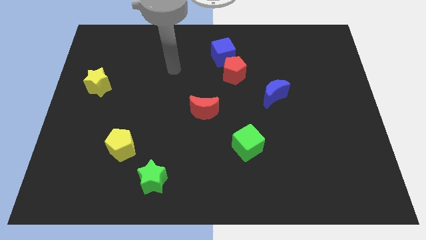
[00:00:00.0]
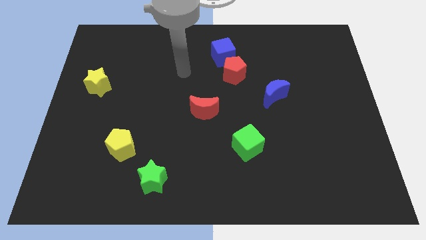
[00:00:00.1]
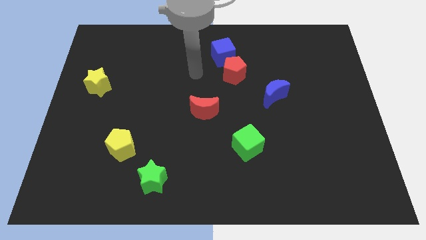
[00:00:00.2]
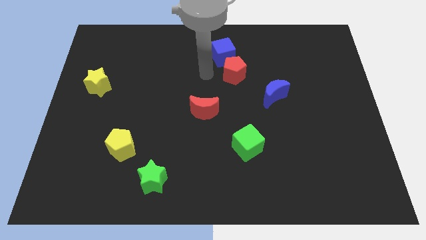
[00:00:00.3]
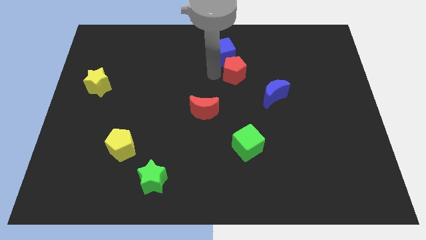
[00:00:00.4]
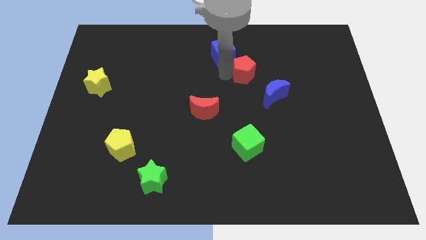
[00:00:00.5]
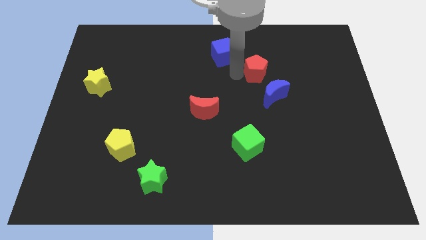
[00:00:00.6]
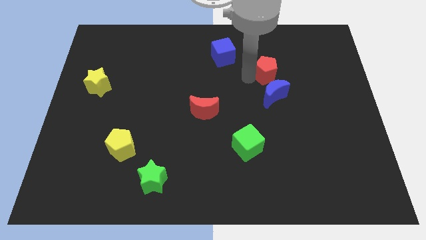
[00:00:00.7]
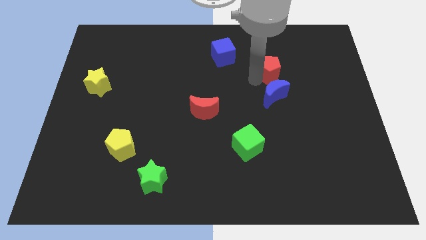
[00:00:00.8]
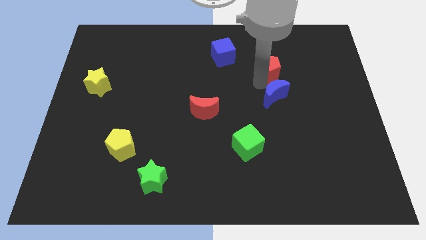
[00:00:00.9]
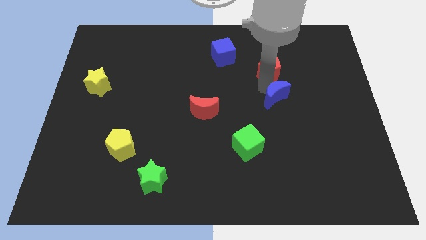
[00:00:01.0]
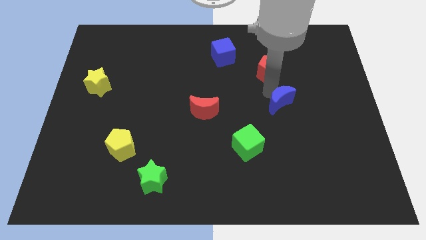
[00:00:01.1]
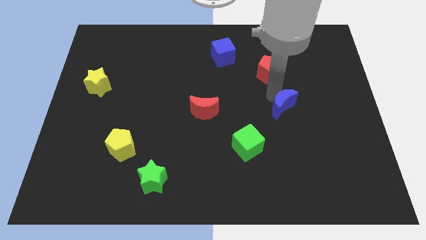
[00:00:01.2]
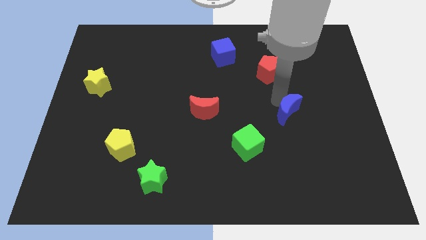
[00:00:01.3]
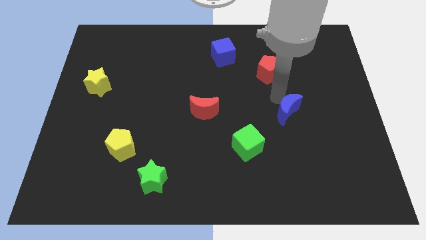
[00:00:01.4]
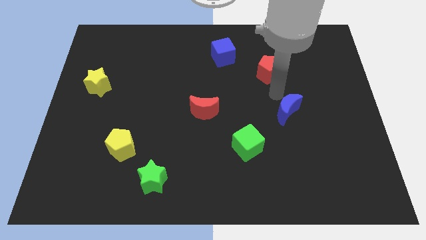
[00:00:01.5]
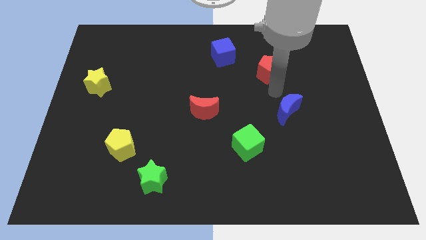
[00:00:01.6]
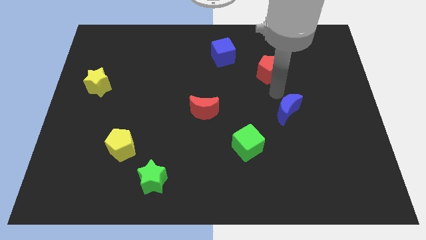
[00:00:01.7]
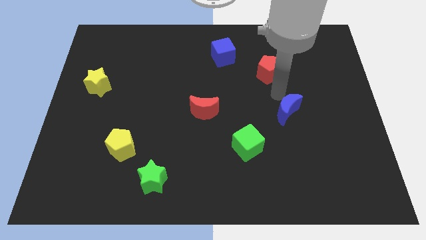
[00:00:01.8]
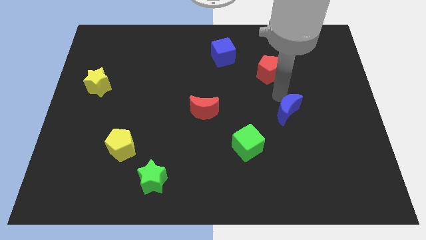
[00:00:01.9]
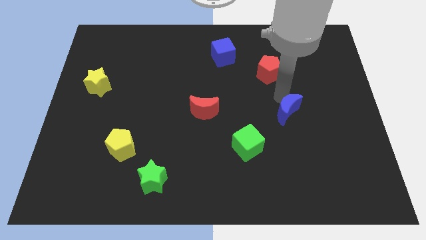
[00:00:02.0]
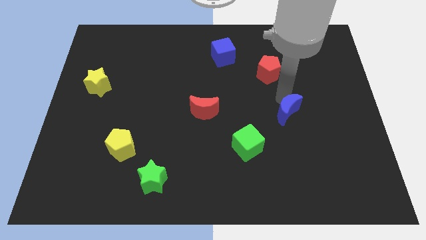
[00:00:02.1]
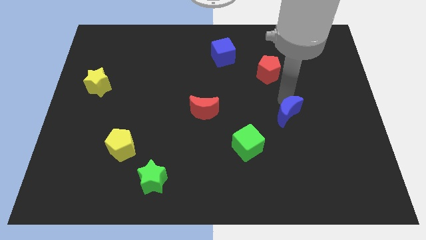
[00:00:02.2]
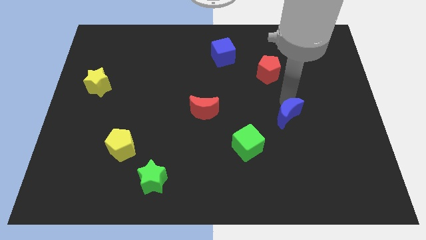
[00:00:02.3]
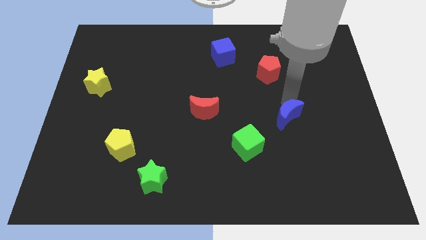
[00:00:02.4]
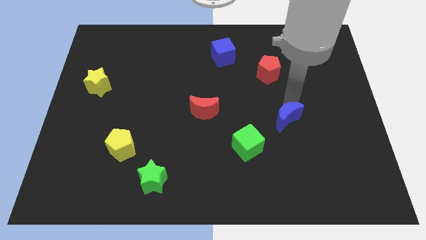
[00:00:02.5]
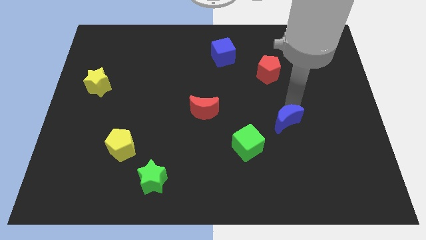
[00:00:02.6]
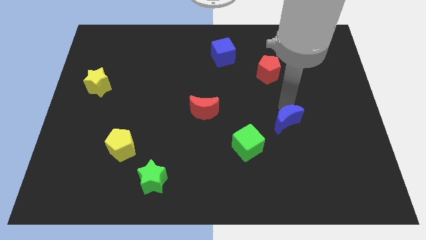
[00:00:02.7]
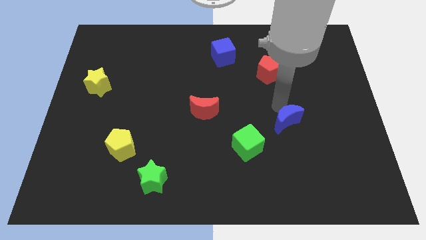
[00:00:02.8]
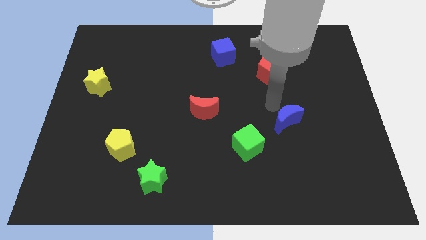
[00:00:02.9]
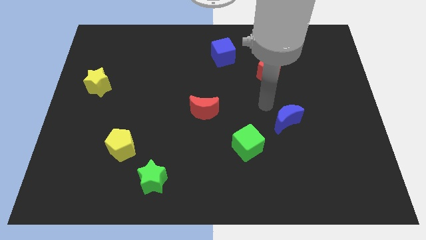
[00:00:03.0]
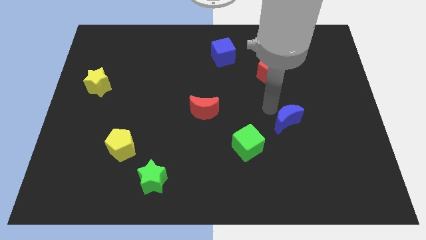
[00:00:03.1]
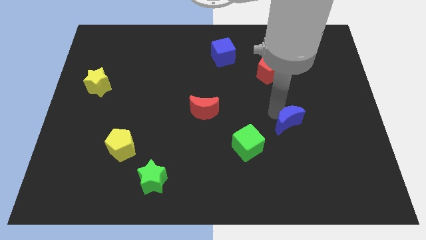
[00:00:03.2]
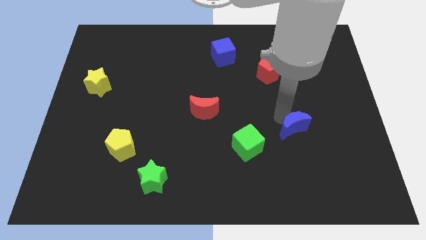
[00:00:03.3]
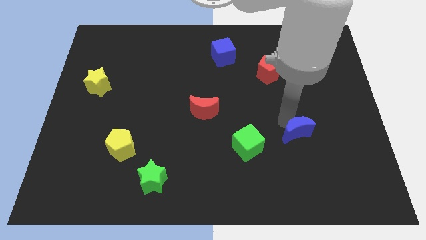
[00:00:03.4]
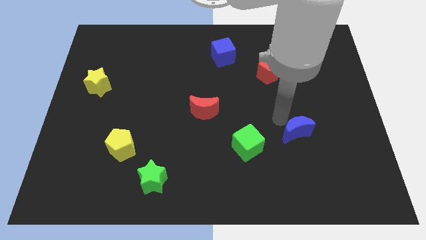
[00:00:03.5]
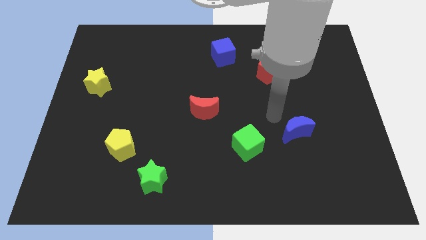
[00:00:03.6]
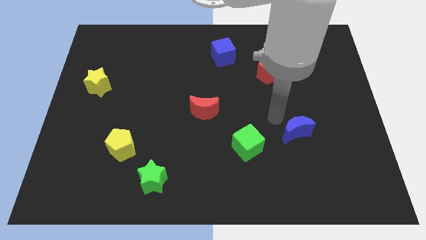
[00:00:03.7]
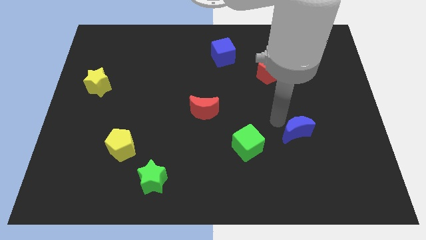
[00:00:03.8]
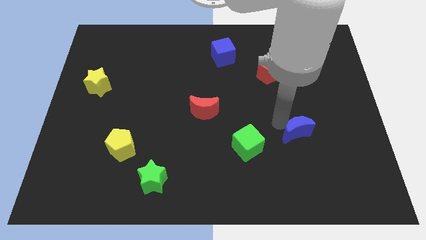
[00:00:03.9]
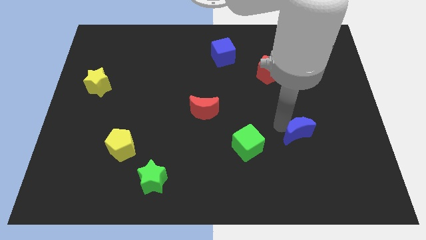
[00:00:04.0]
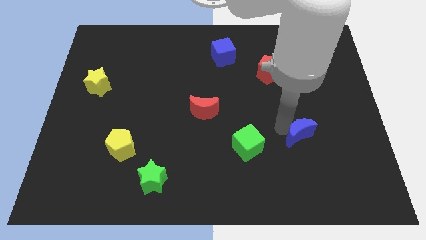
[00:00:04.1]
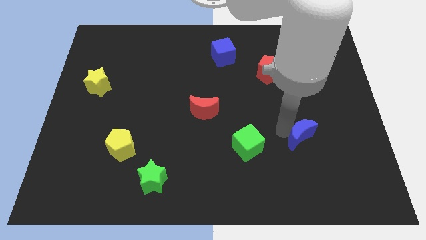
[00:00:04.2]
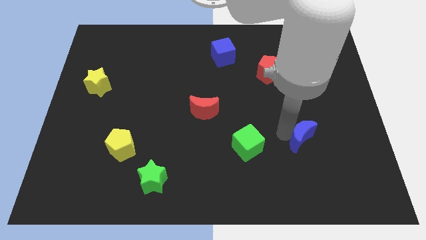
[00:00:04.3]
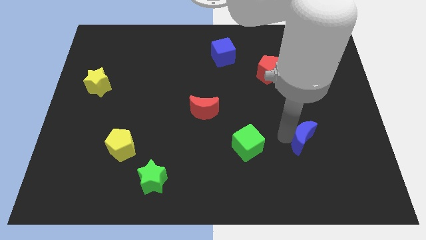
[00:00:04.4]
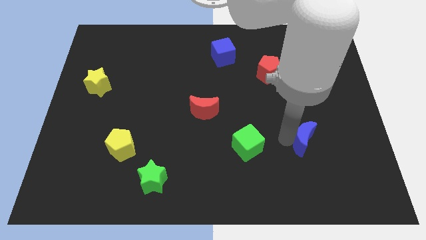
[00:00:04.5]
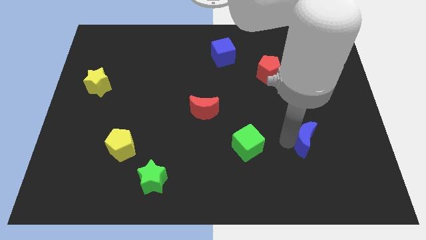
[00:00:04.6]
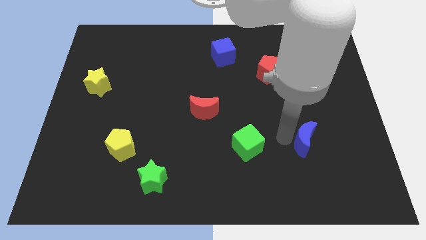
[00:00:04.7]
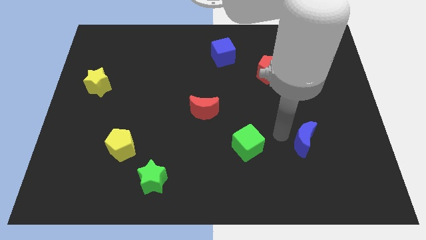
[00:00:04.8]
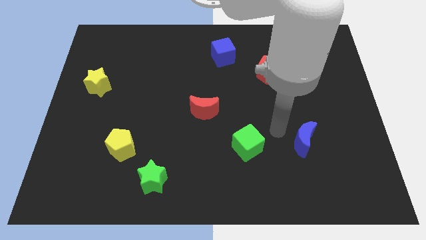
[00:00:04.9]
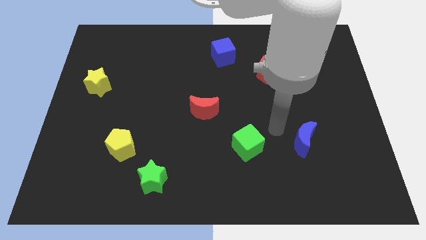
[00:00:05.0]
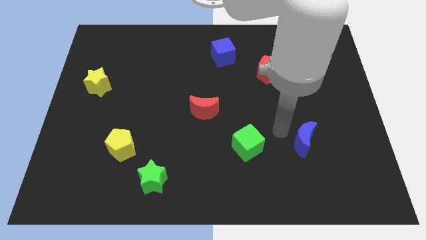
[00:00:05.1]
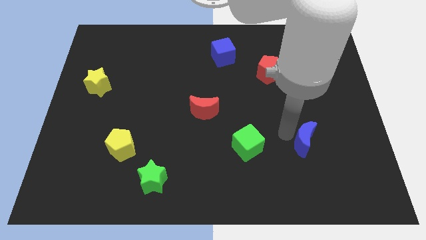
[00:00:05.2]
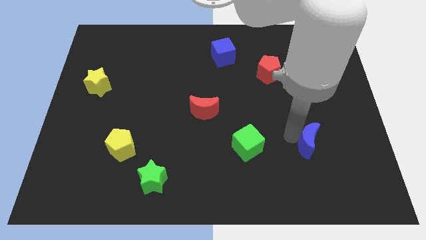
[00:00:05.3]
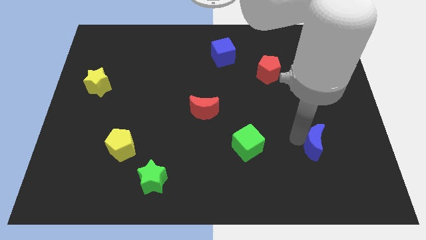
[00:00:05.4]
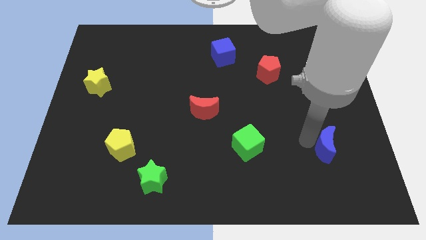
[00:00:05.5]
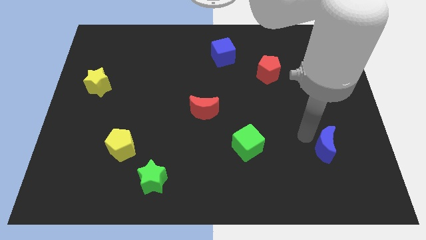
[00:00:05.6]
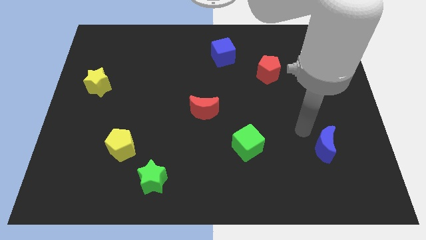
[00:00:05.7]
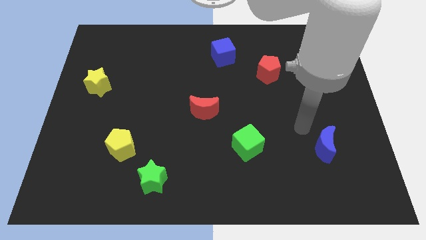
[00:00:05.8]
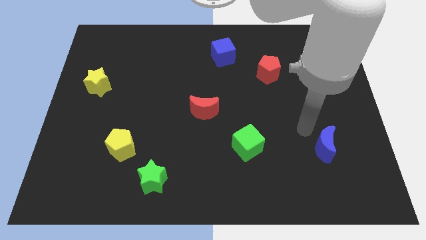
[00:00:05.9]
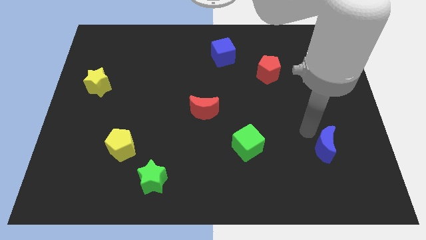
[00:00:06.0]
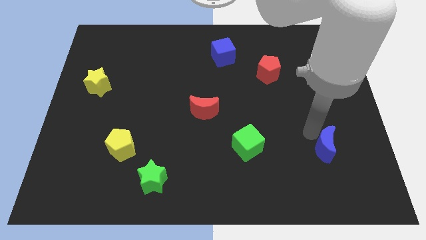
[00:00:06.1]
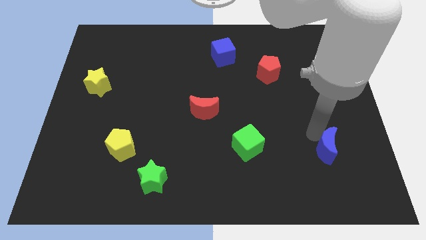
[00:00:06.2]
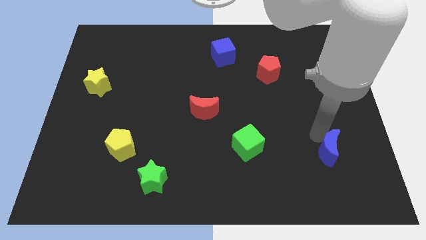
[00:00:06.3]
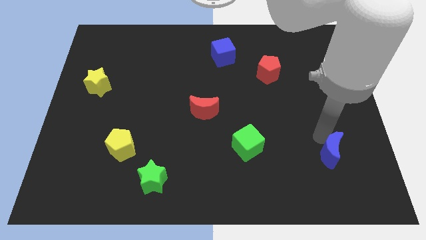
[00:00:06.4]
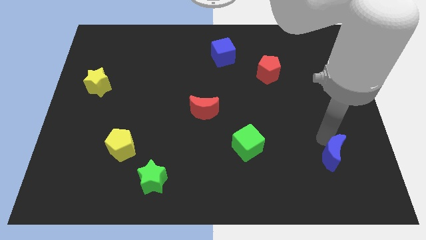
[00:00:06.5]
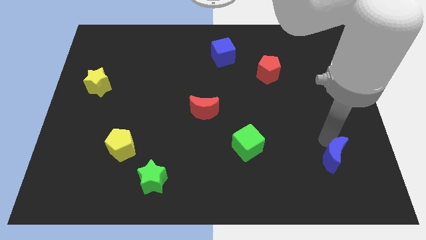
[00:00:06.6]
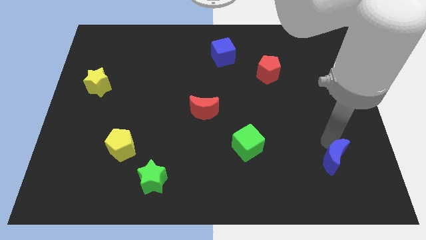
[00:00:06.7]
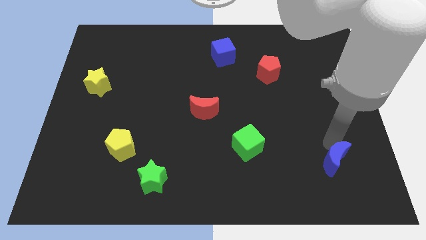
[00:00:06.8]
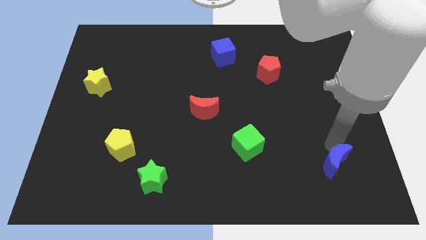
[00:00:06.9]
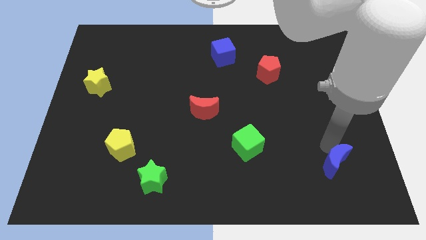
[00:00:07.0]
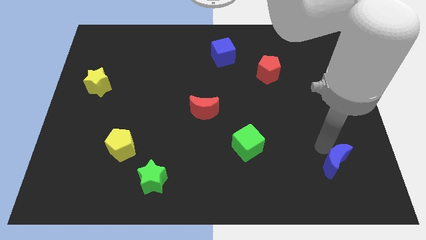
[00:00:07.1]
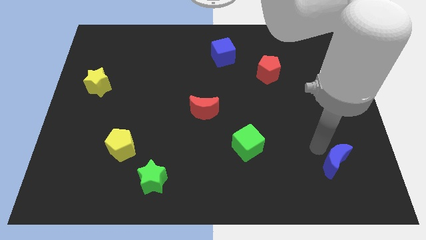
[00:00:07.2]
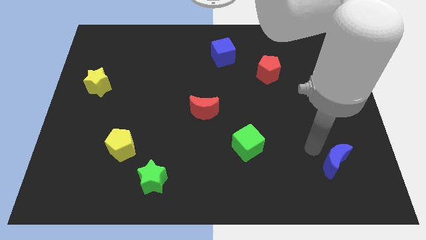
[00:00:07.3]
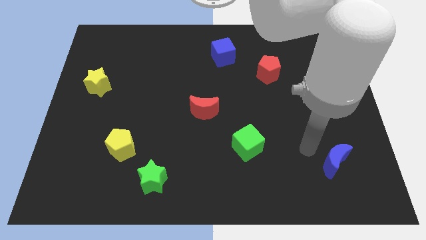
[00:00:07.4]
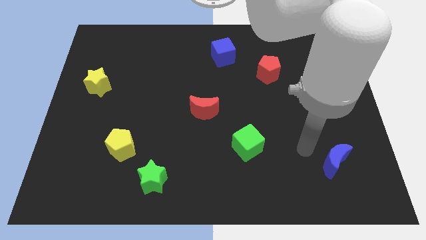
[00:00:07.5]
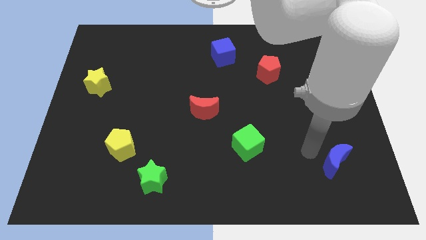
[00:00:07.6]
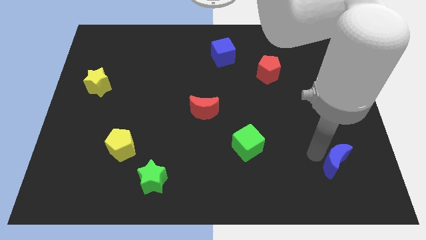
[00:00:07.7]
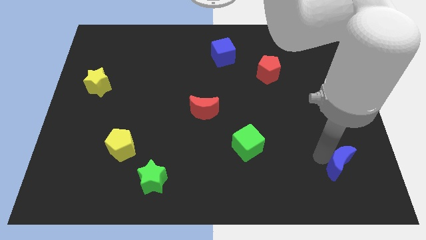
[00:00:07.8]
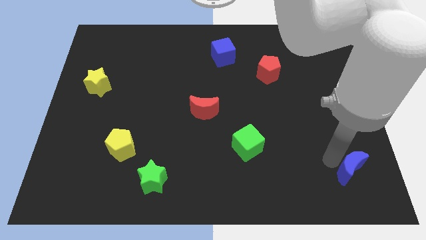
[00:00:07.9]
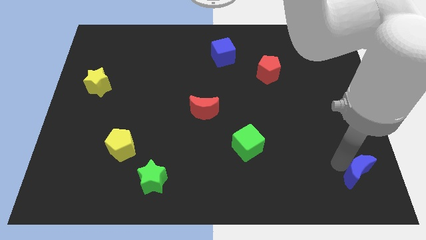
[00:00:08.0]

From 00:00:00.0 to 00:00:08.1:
push the blue moon to the lower right corner
